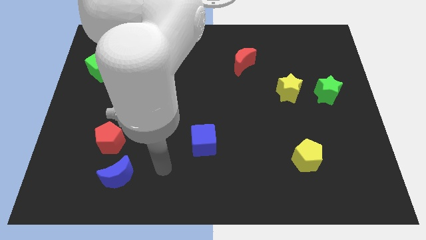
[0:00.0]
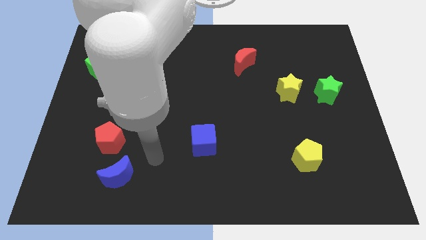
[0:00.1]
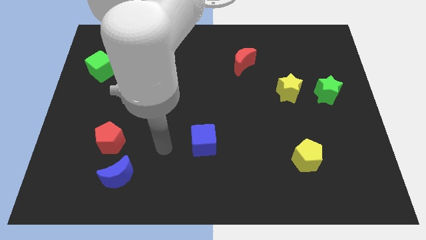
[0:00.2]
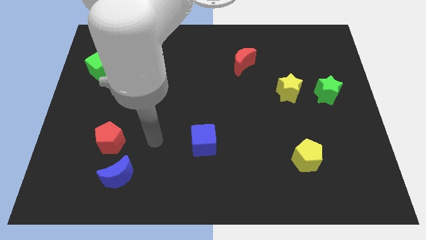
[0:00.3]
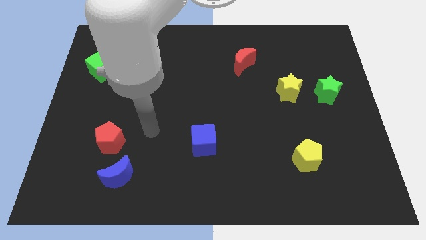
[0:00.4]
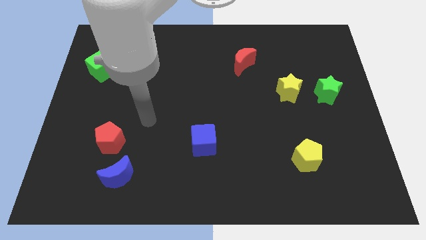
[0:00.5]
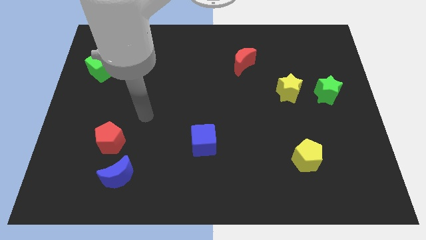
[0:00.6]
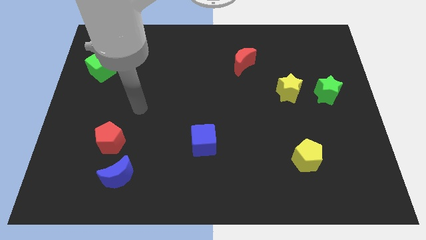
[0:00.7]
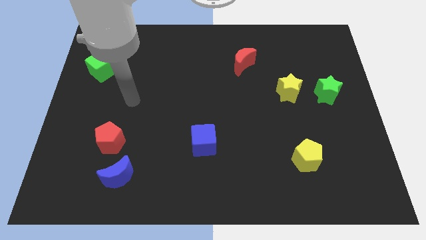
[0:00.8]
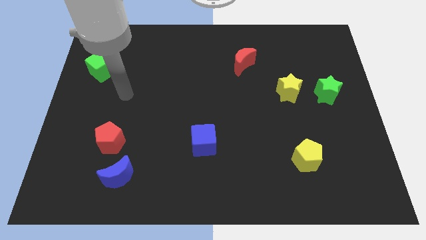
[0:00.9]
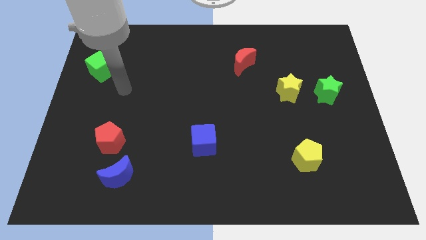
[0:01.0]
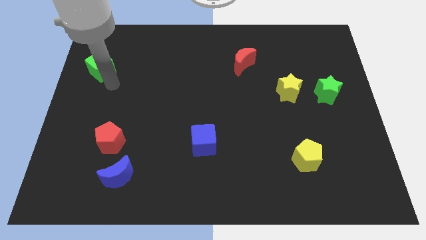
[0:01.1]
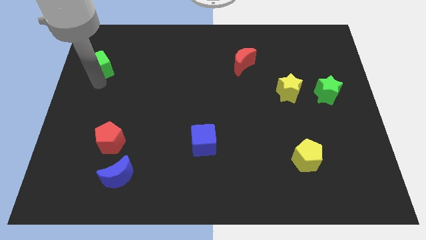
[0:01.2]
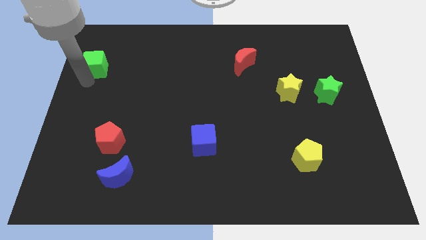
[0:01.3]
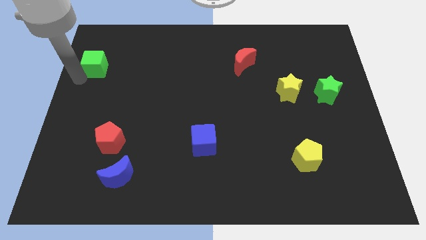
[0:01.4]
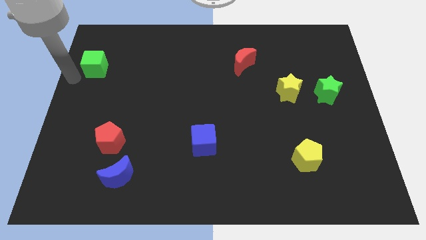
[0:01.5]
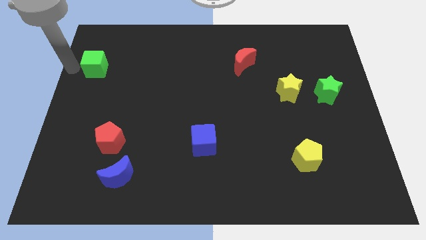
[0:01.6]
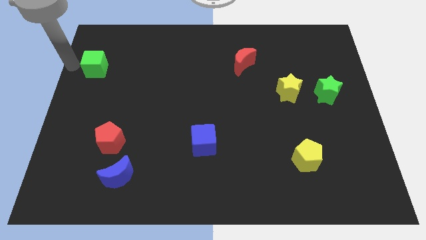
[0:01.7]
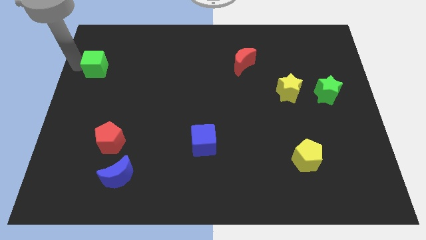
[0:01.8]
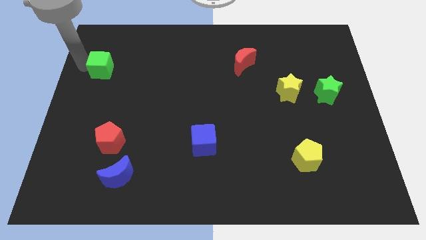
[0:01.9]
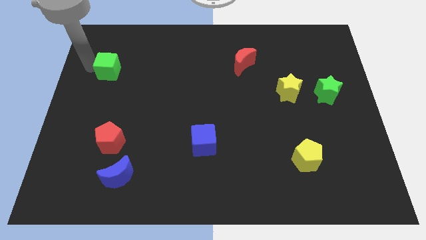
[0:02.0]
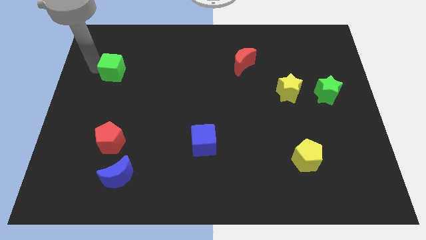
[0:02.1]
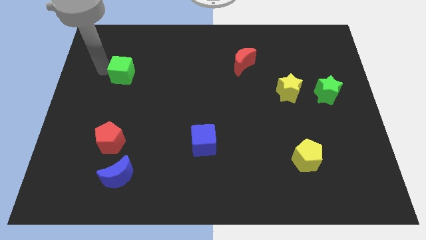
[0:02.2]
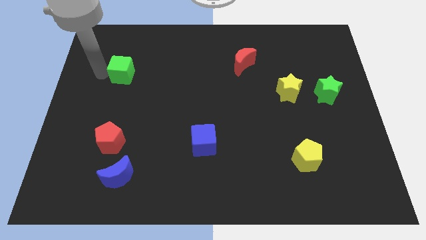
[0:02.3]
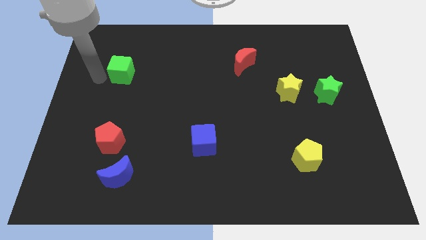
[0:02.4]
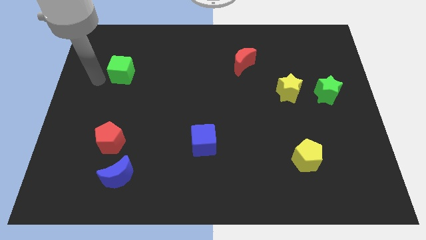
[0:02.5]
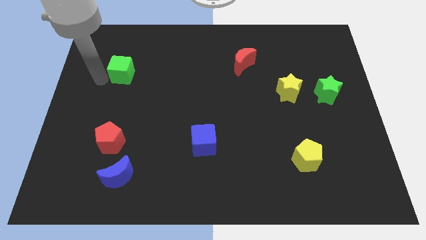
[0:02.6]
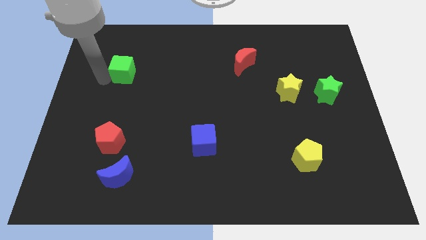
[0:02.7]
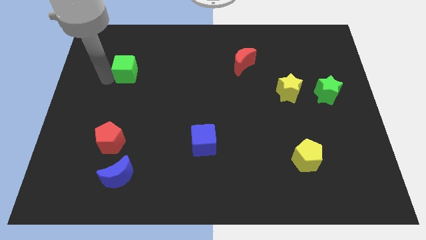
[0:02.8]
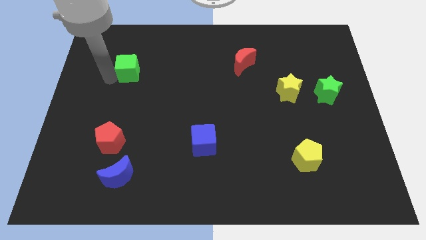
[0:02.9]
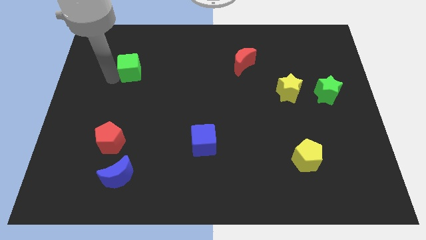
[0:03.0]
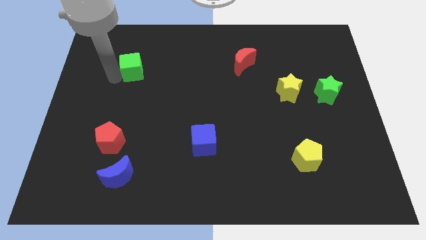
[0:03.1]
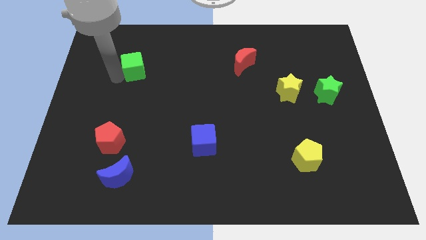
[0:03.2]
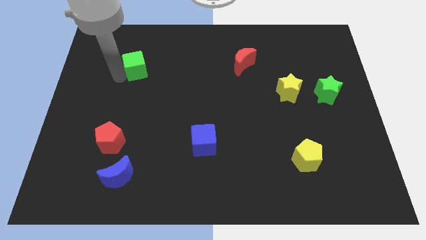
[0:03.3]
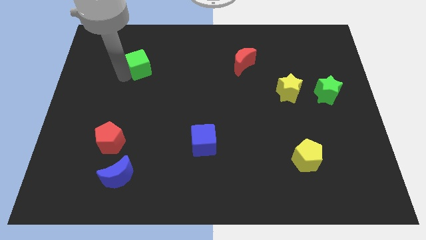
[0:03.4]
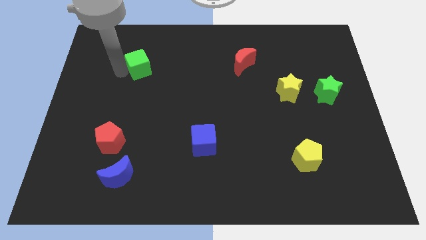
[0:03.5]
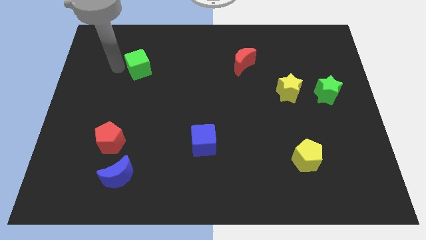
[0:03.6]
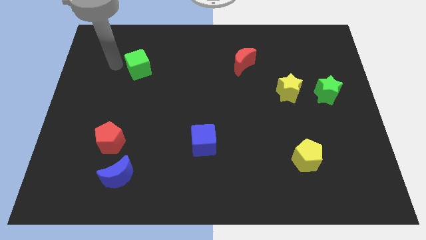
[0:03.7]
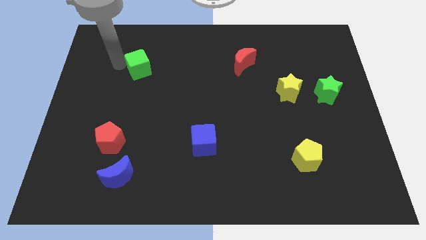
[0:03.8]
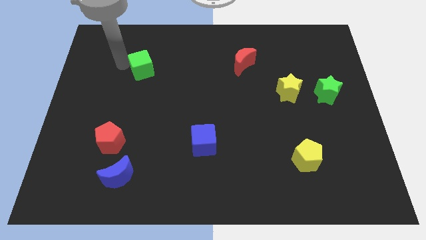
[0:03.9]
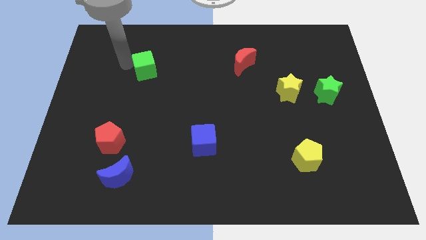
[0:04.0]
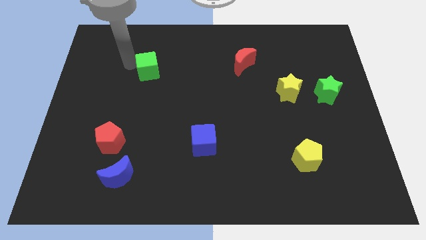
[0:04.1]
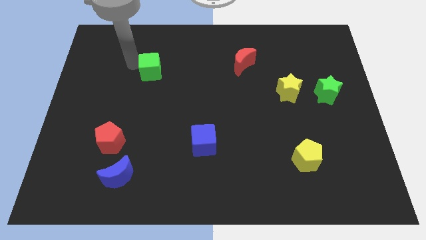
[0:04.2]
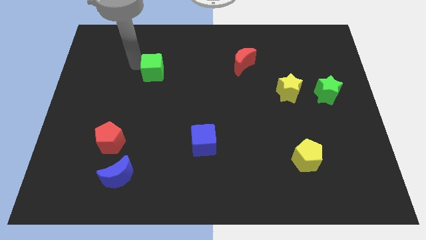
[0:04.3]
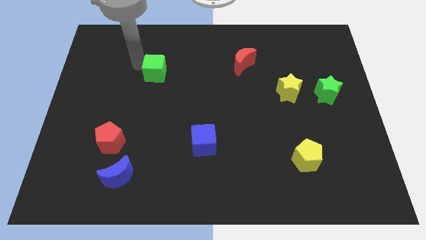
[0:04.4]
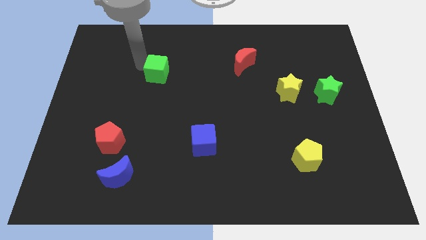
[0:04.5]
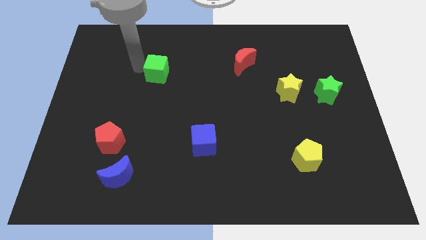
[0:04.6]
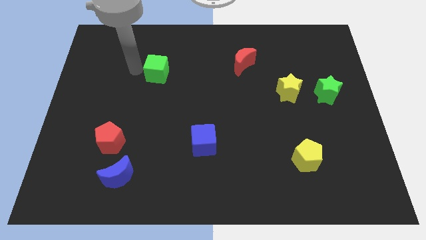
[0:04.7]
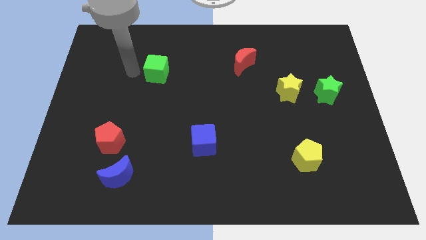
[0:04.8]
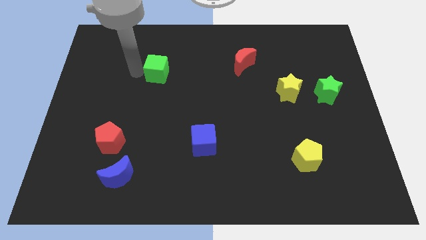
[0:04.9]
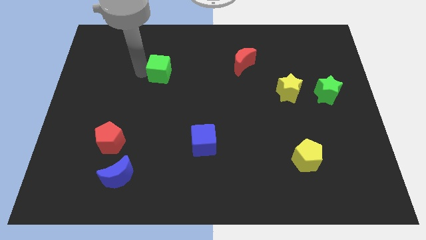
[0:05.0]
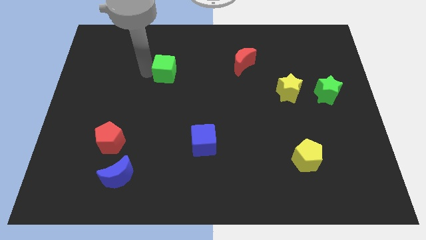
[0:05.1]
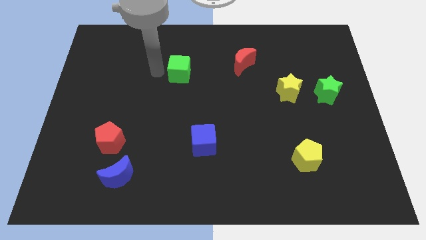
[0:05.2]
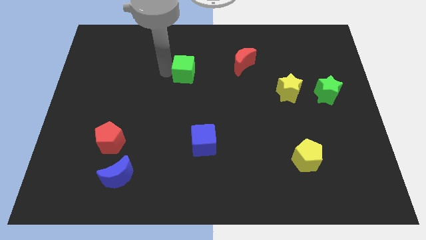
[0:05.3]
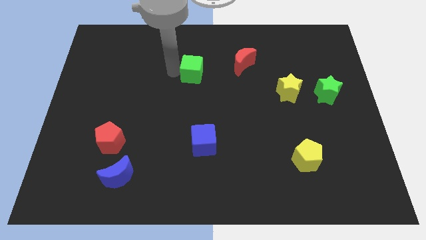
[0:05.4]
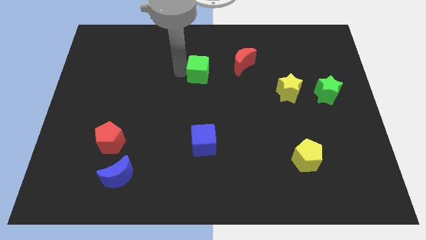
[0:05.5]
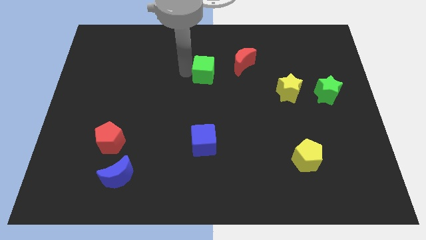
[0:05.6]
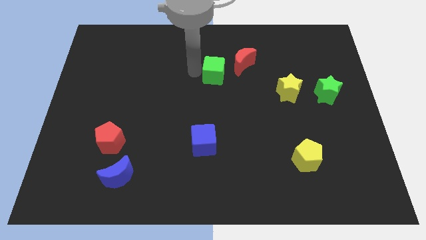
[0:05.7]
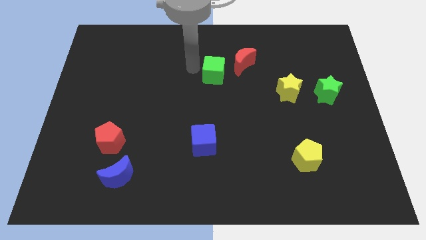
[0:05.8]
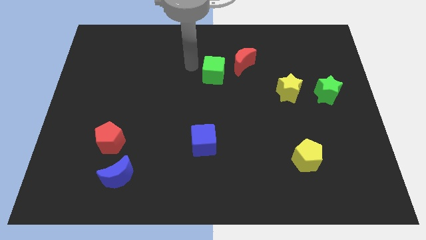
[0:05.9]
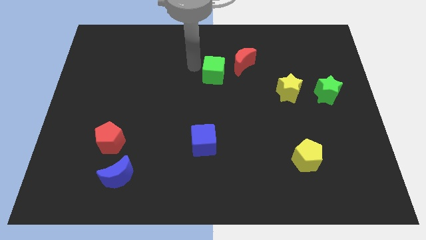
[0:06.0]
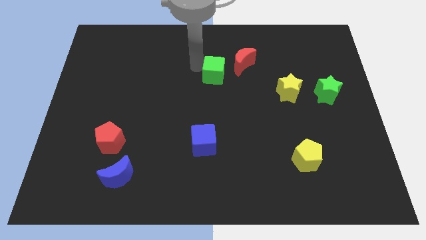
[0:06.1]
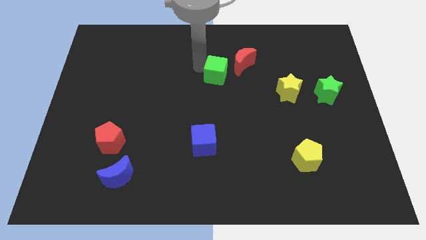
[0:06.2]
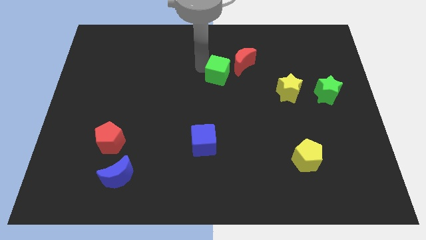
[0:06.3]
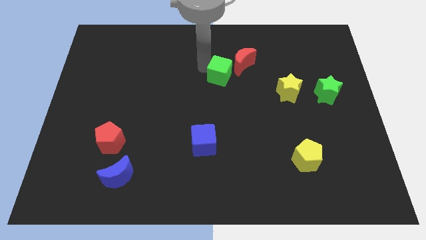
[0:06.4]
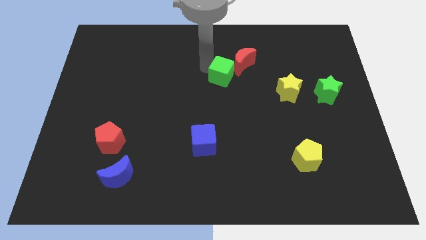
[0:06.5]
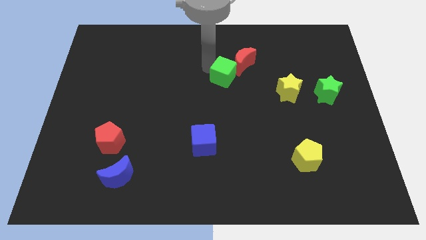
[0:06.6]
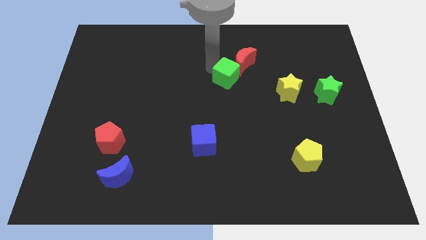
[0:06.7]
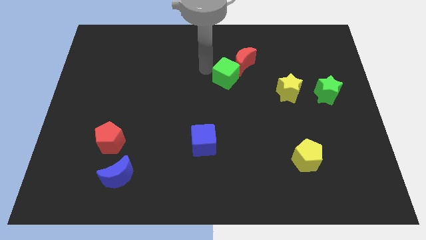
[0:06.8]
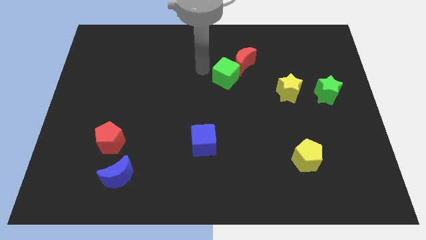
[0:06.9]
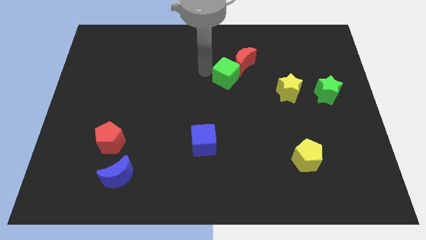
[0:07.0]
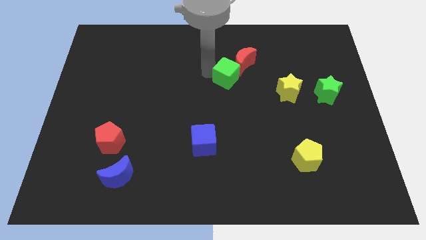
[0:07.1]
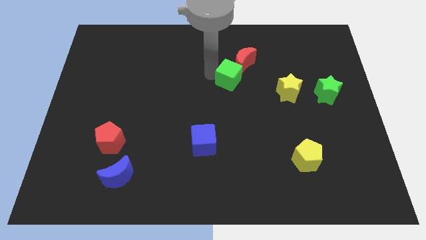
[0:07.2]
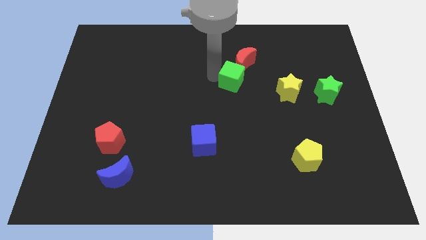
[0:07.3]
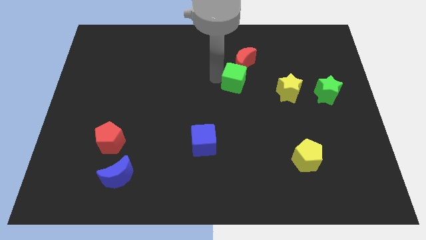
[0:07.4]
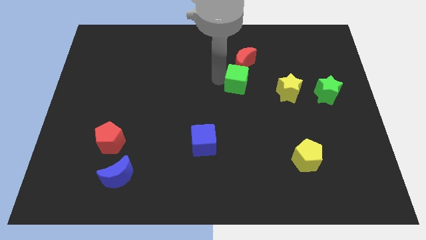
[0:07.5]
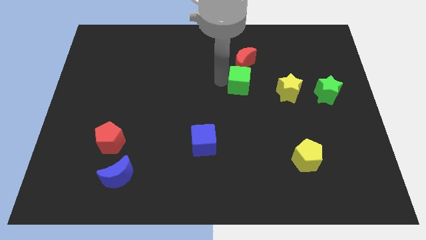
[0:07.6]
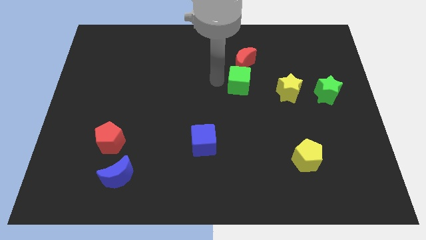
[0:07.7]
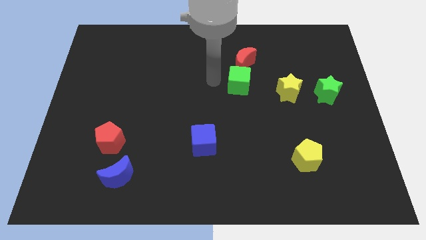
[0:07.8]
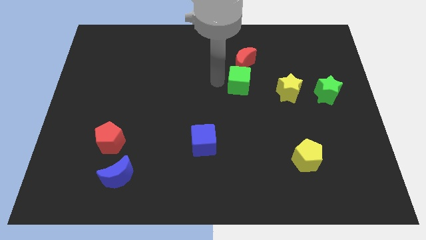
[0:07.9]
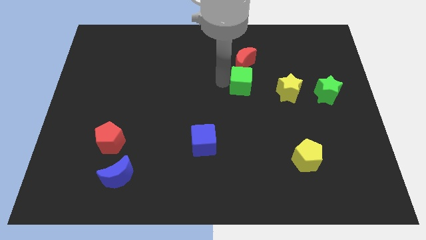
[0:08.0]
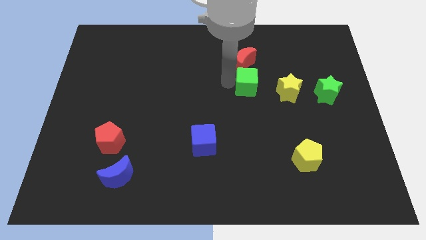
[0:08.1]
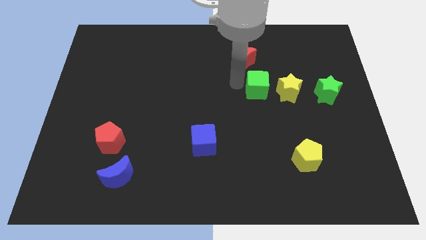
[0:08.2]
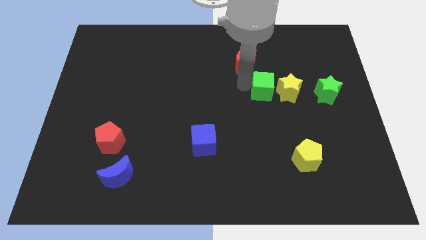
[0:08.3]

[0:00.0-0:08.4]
move the green cube to the yellow star
